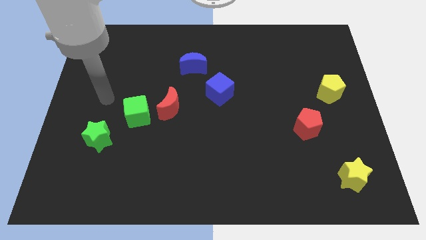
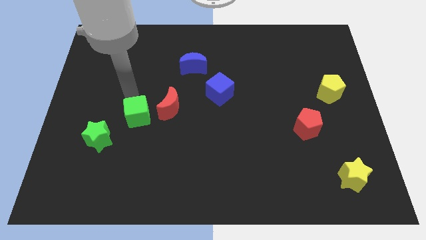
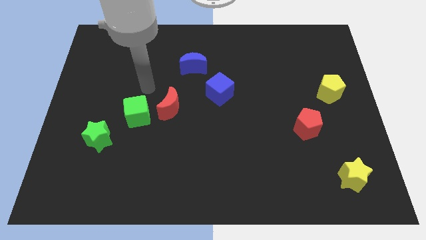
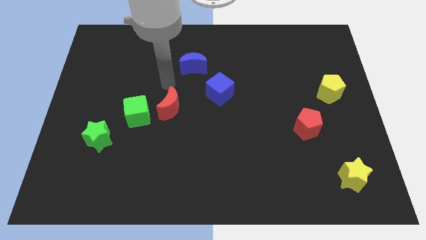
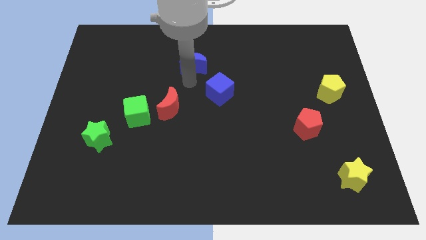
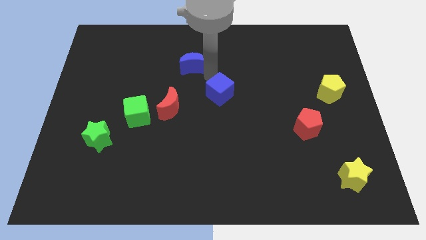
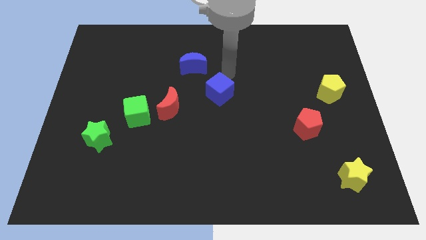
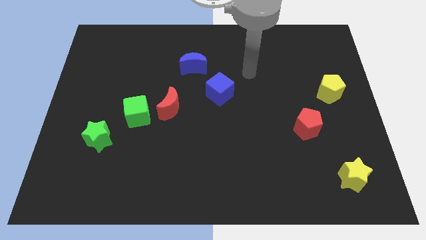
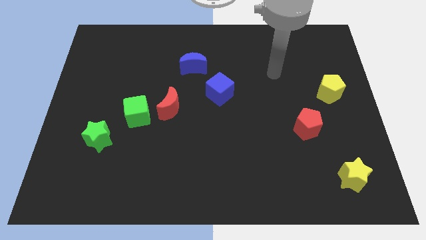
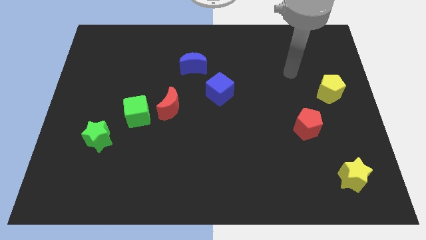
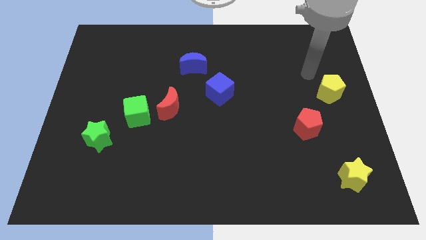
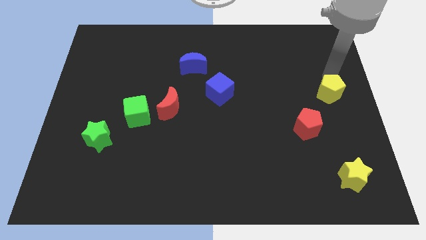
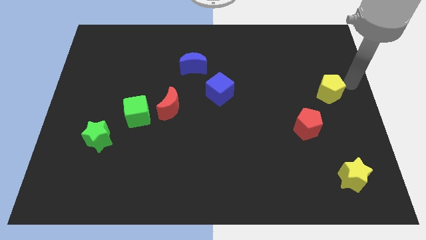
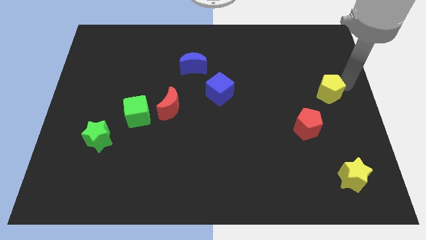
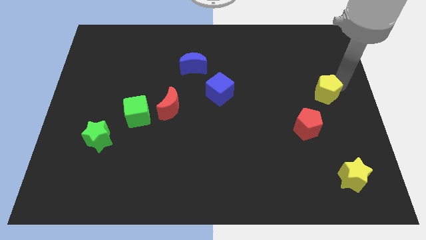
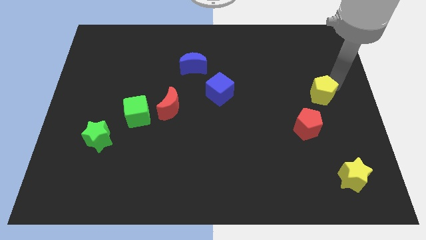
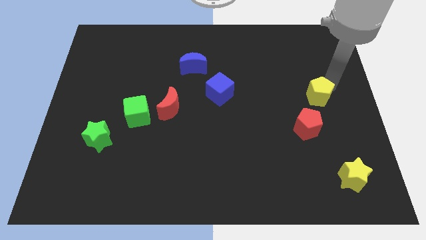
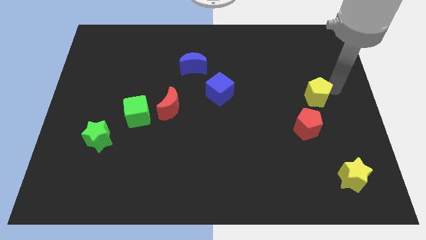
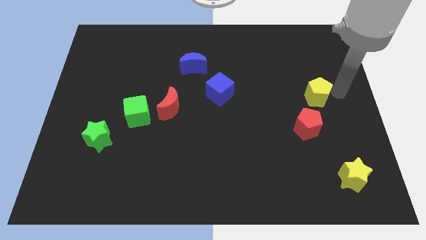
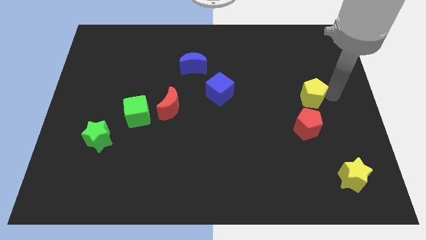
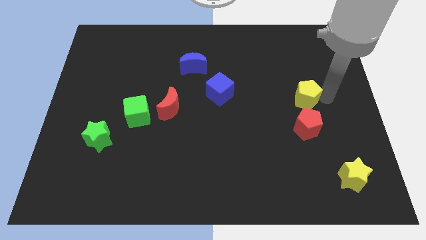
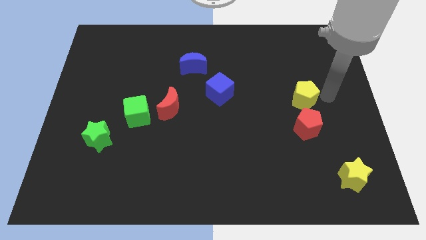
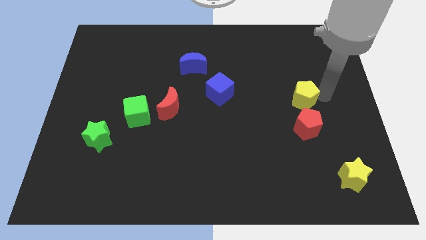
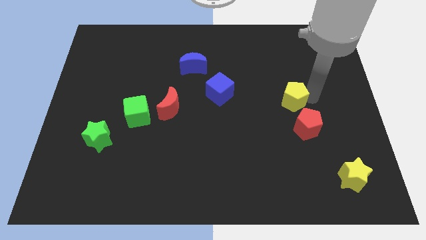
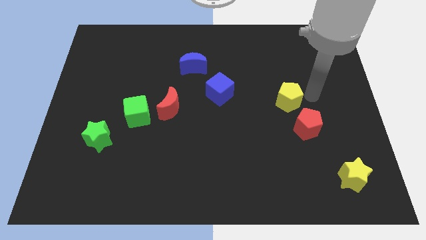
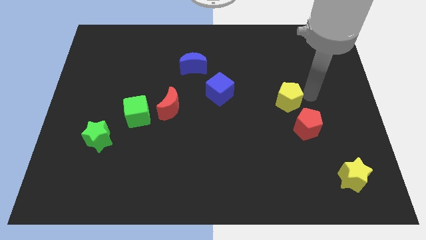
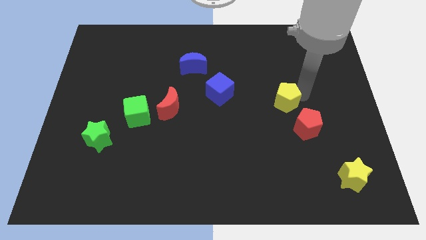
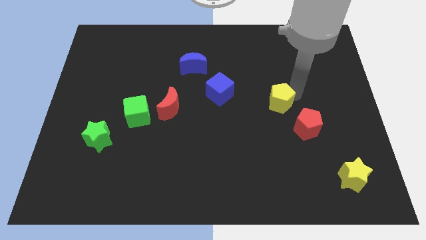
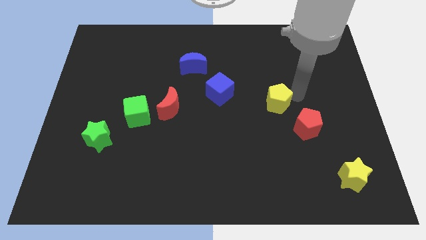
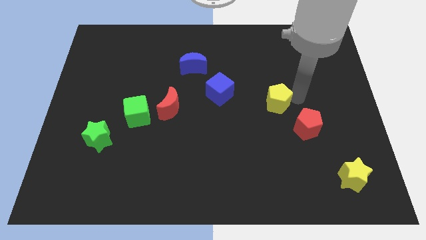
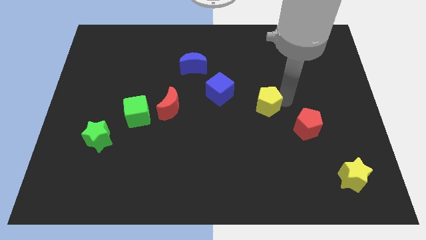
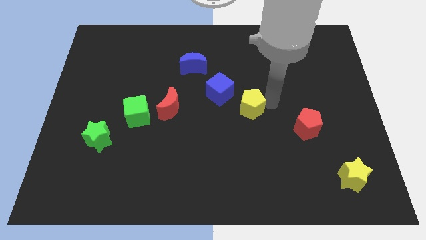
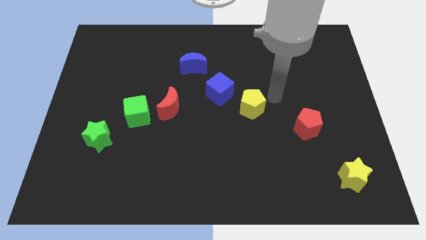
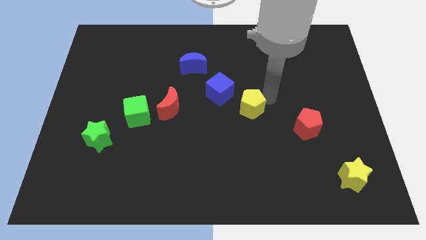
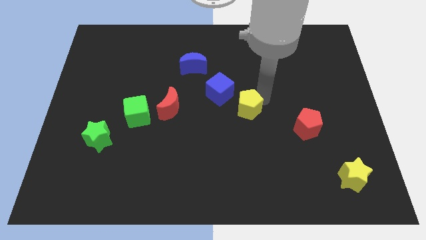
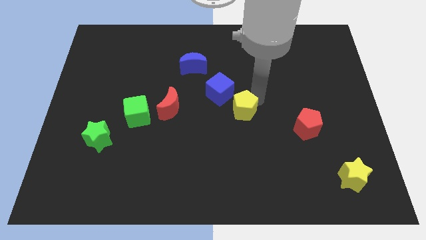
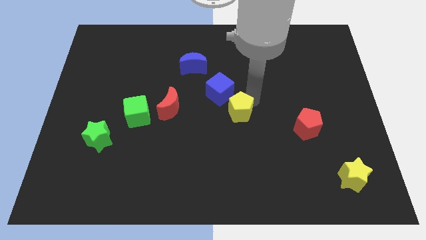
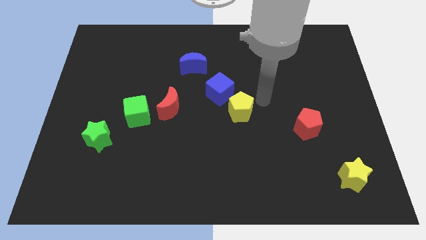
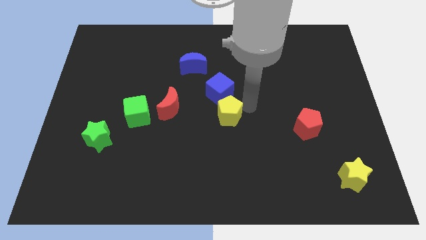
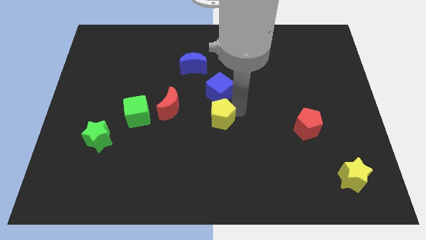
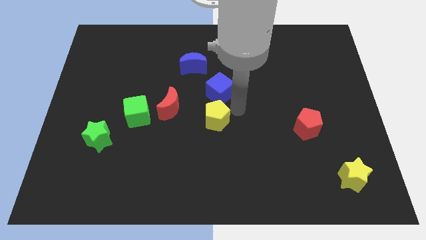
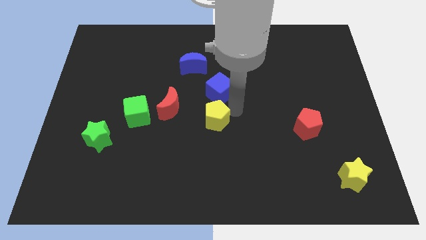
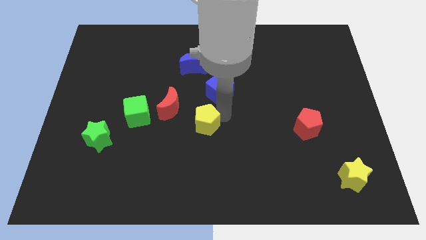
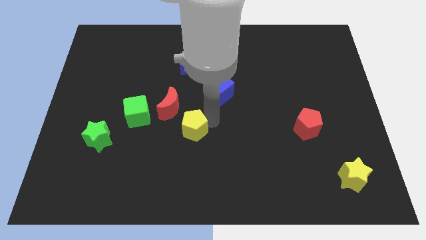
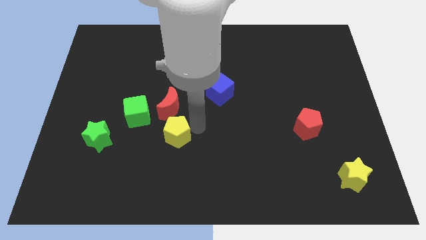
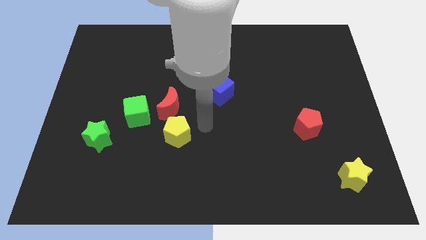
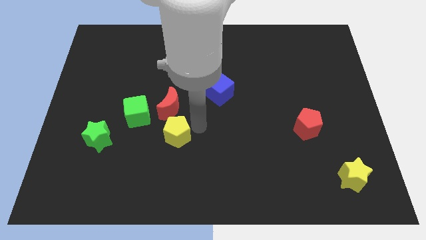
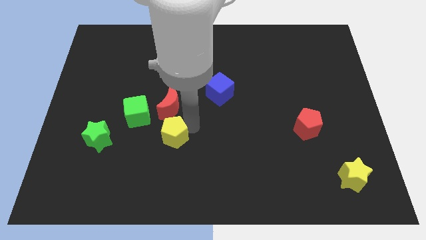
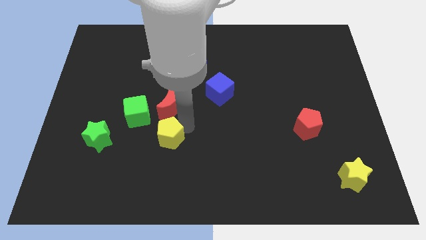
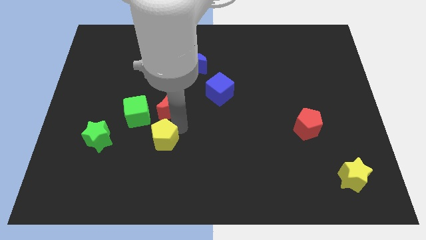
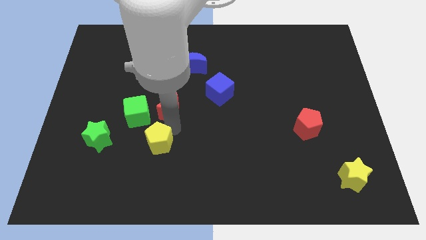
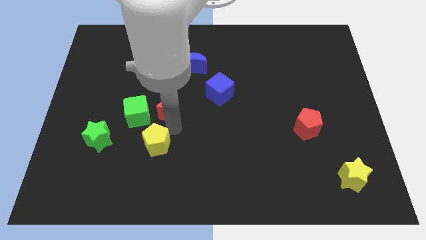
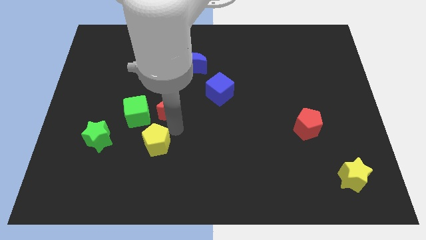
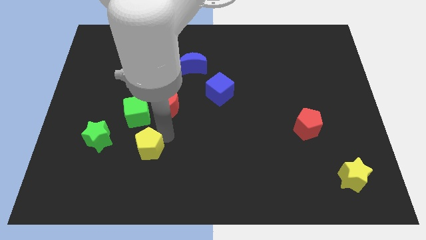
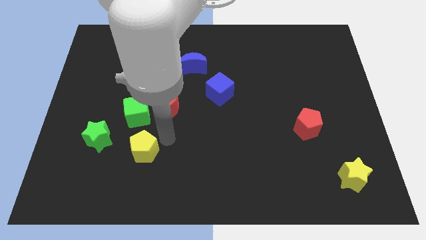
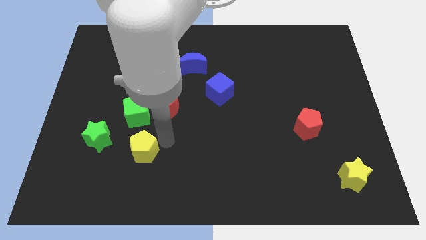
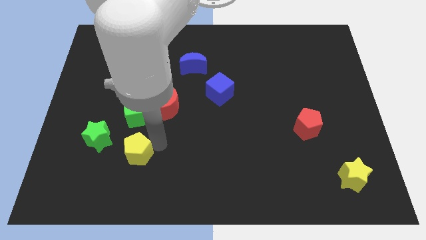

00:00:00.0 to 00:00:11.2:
move the yellow pentagon to the bottom right side of the green star
